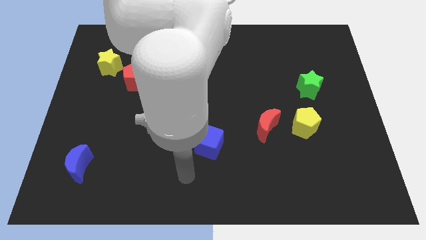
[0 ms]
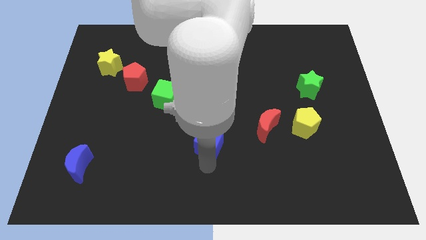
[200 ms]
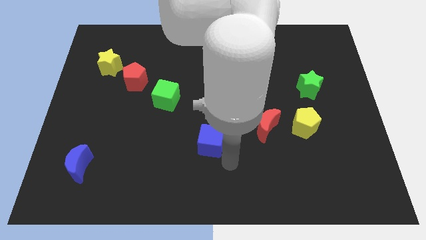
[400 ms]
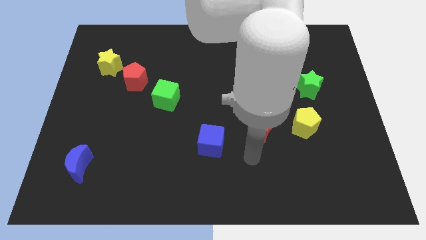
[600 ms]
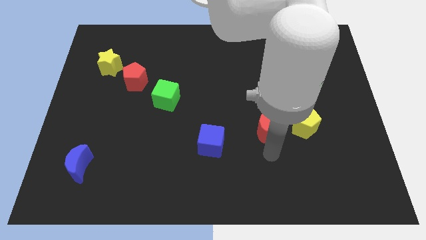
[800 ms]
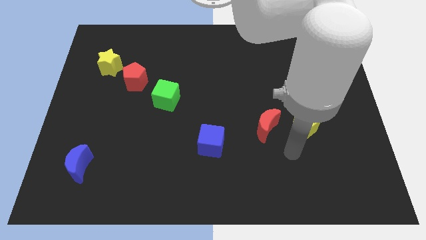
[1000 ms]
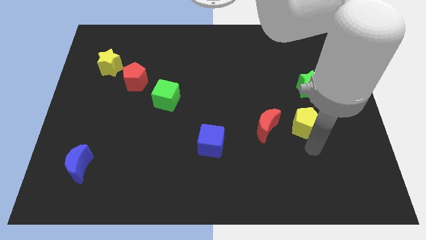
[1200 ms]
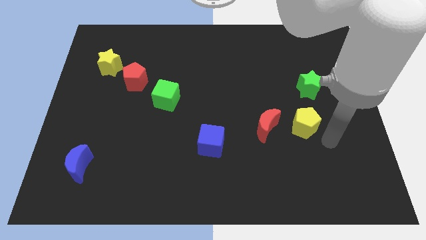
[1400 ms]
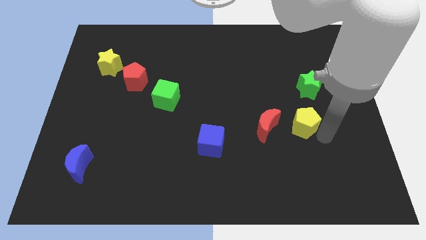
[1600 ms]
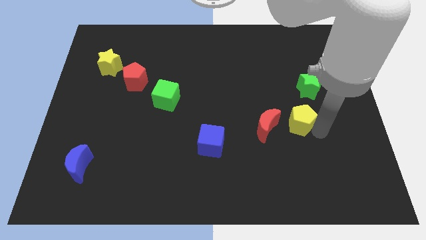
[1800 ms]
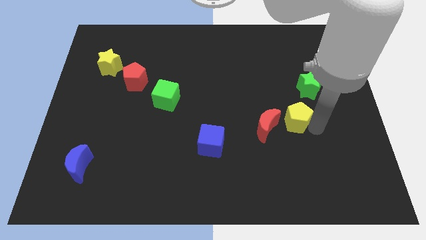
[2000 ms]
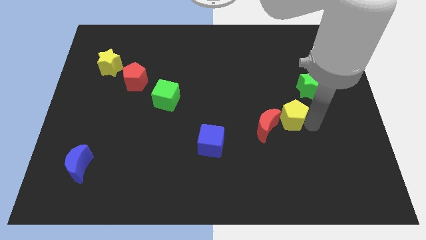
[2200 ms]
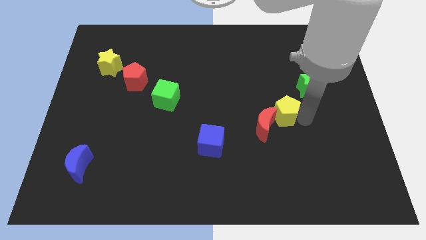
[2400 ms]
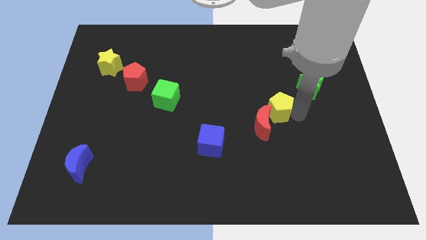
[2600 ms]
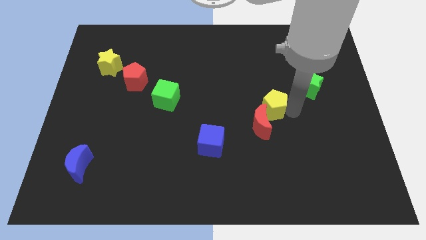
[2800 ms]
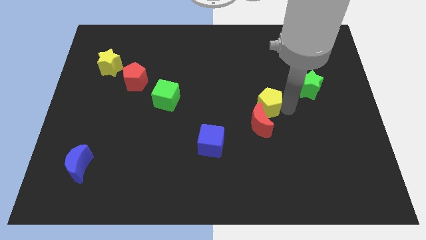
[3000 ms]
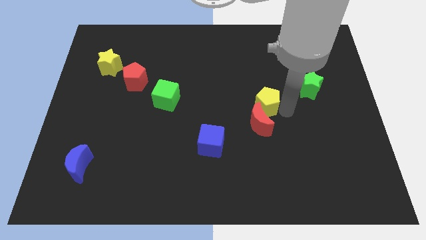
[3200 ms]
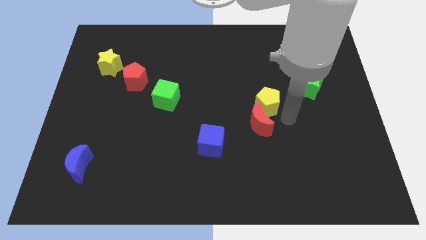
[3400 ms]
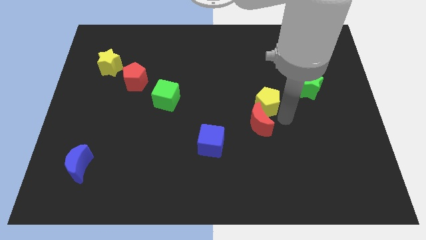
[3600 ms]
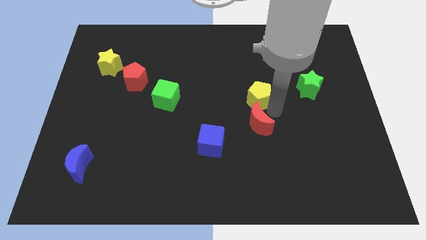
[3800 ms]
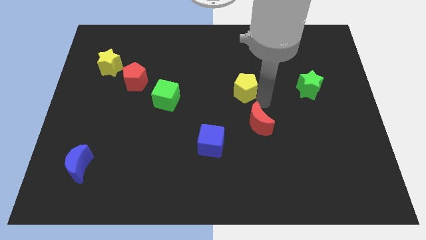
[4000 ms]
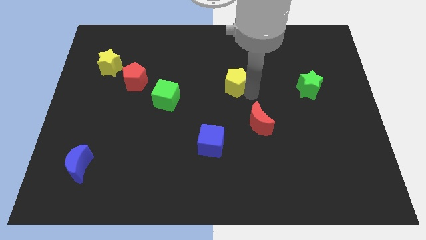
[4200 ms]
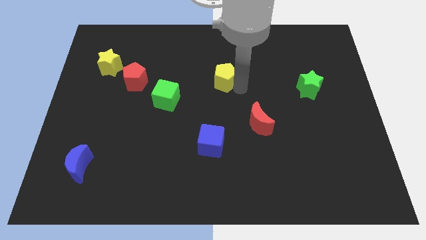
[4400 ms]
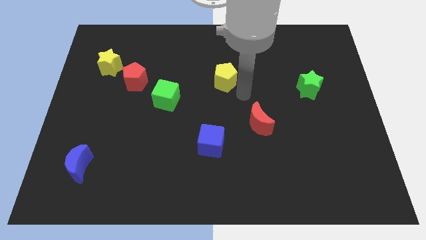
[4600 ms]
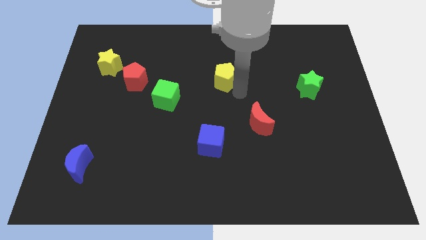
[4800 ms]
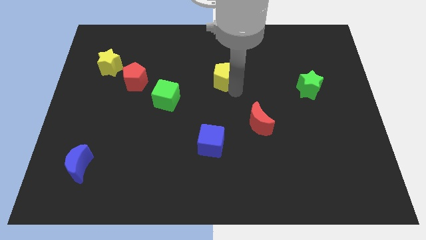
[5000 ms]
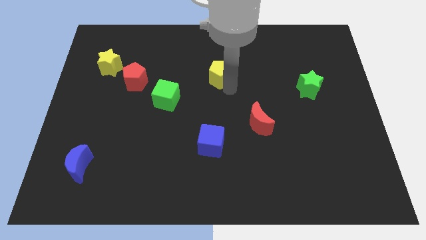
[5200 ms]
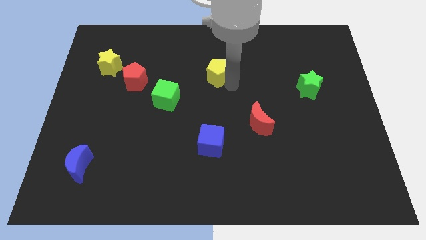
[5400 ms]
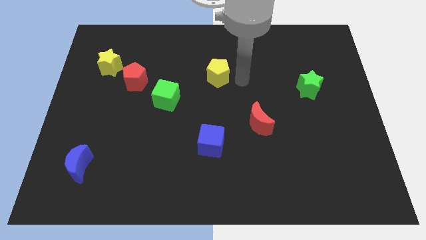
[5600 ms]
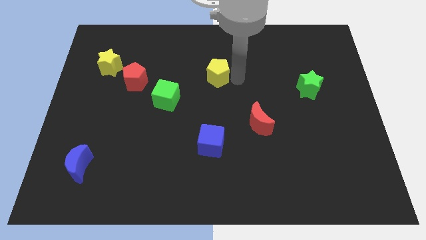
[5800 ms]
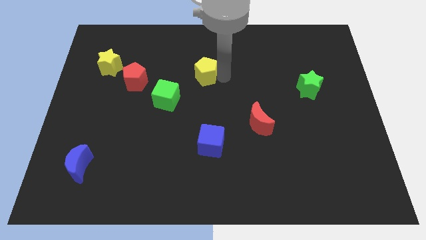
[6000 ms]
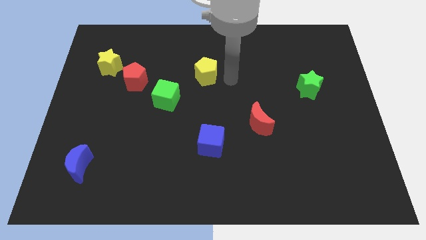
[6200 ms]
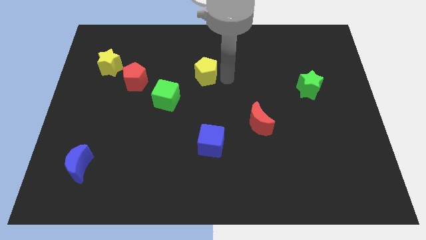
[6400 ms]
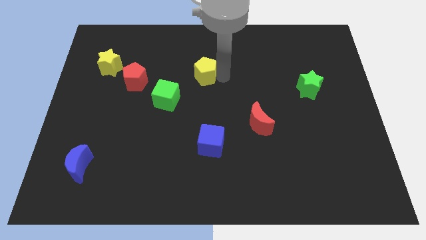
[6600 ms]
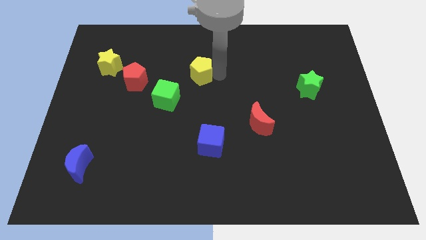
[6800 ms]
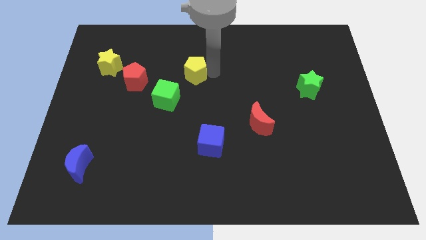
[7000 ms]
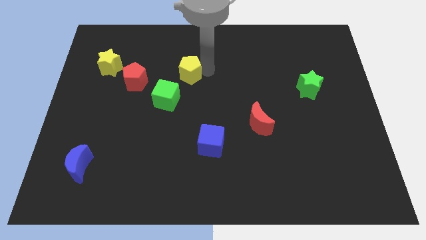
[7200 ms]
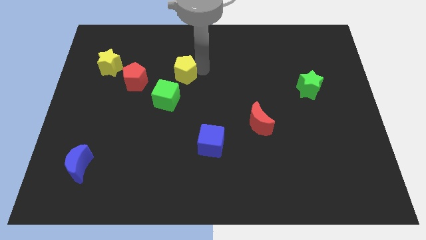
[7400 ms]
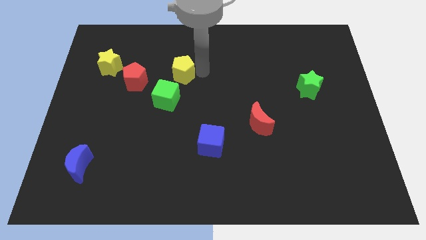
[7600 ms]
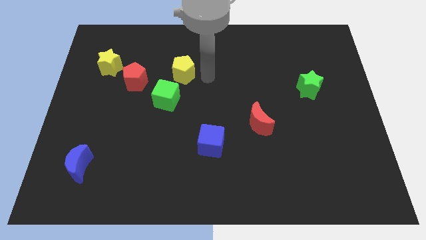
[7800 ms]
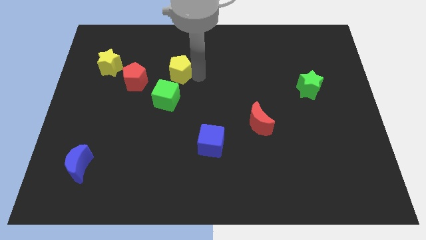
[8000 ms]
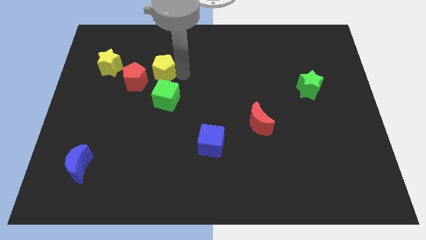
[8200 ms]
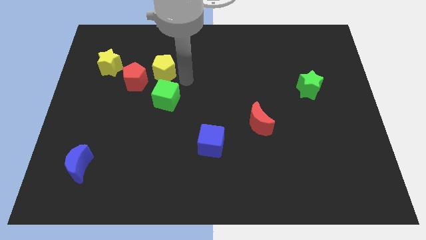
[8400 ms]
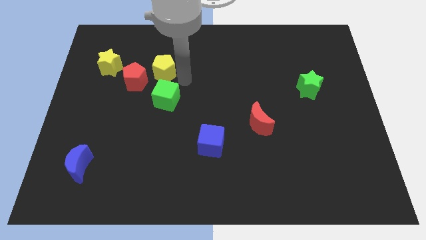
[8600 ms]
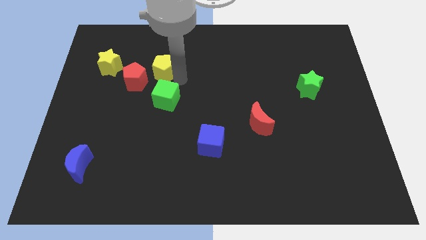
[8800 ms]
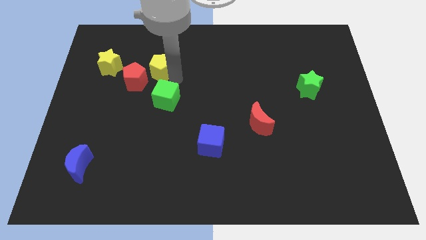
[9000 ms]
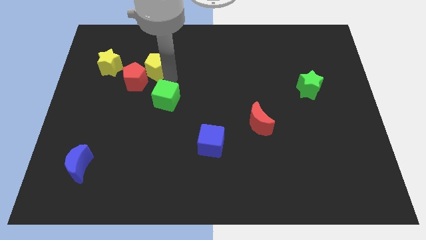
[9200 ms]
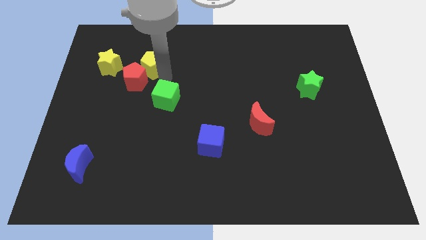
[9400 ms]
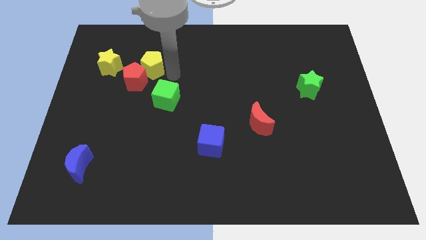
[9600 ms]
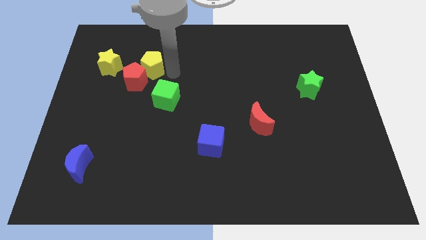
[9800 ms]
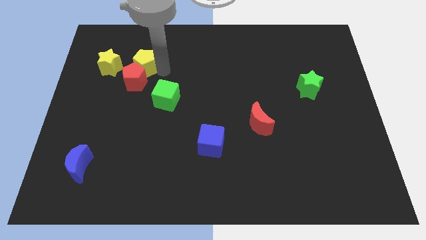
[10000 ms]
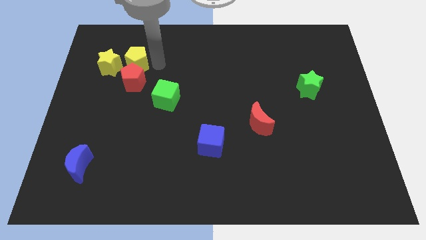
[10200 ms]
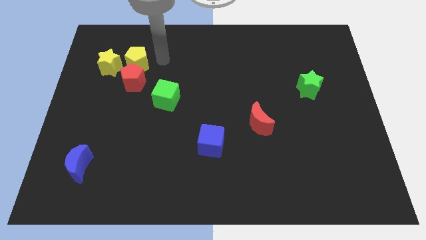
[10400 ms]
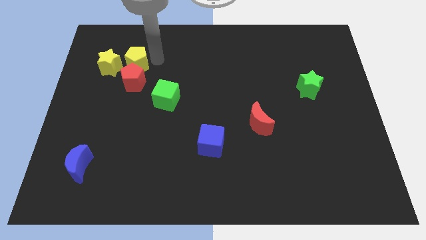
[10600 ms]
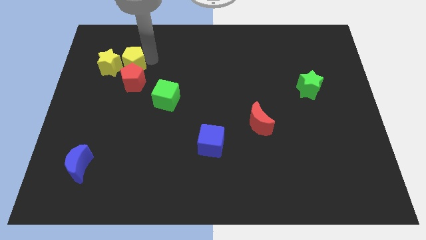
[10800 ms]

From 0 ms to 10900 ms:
slide the yellow pentagon next to the yellow star

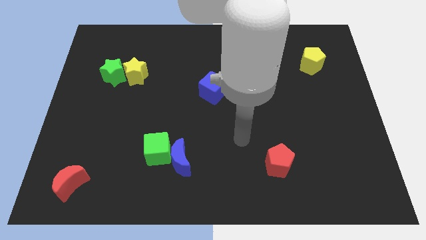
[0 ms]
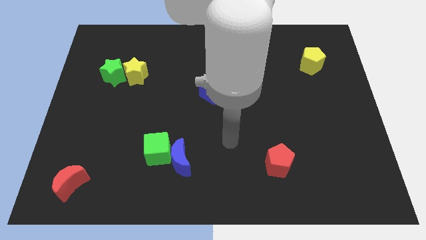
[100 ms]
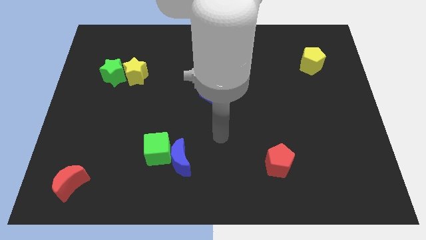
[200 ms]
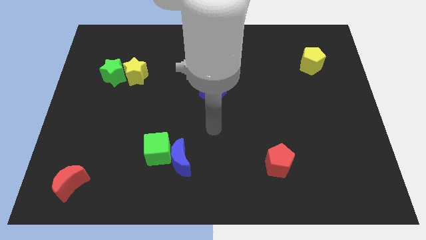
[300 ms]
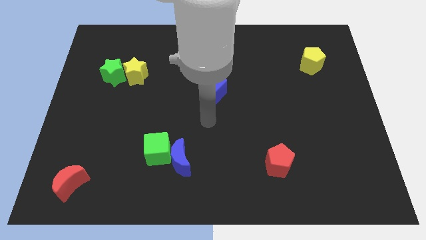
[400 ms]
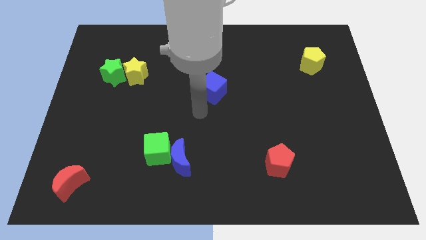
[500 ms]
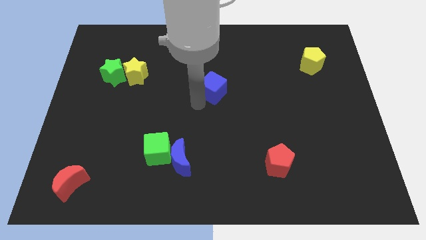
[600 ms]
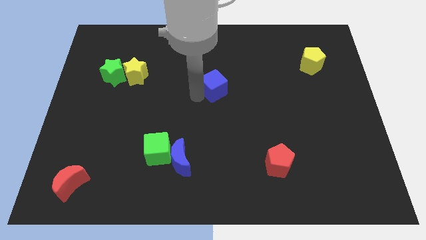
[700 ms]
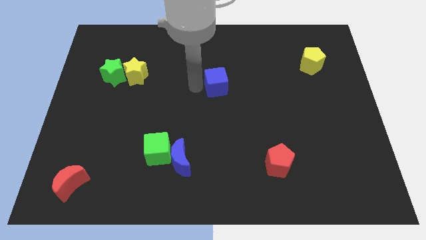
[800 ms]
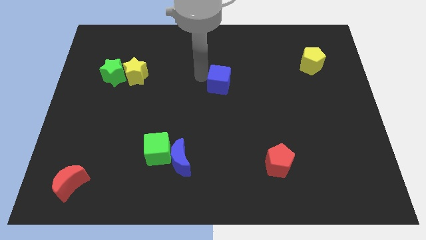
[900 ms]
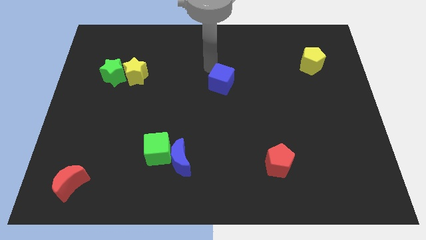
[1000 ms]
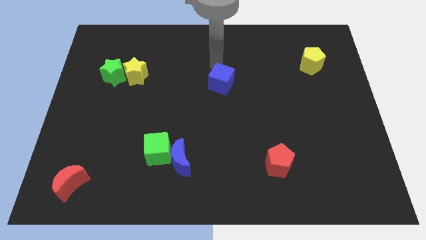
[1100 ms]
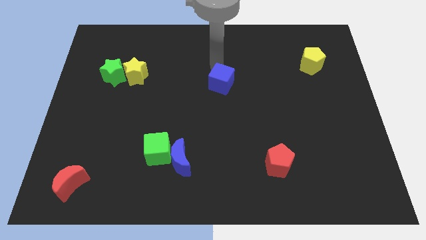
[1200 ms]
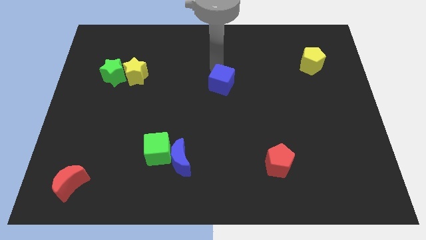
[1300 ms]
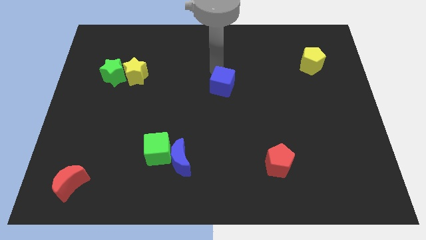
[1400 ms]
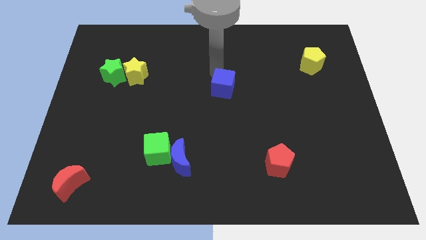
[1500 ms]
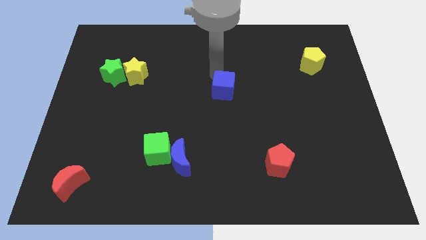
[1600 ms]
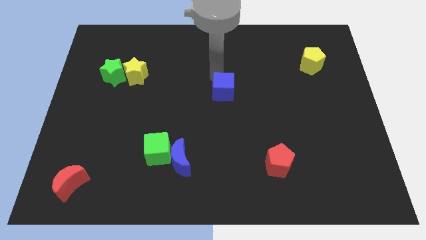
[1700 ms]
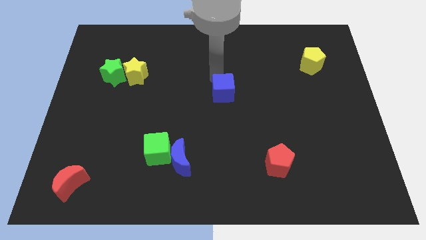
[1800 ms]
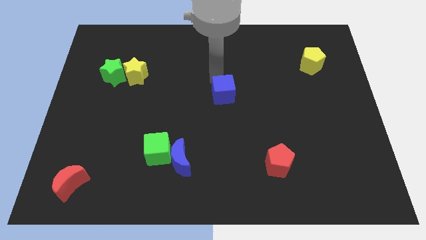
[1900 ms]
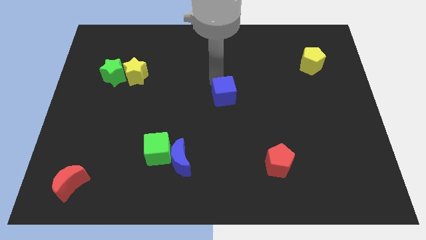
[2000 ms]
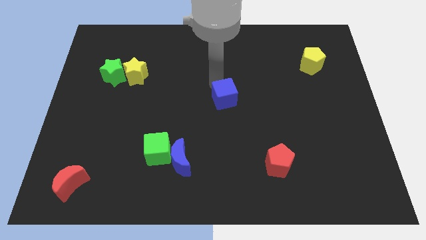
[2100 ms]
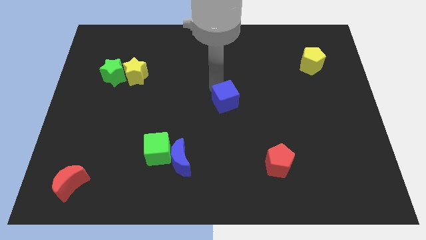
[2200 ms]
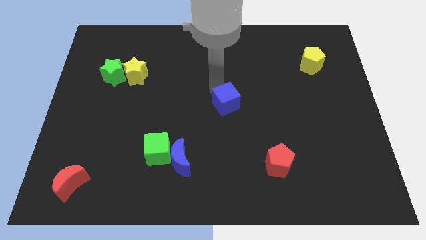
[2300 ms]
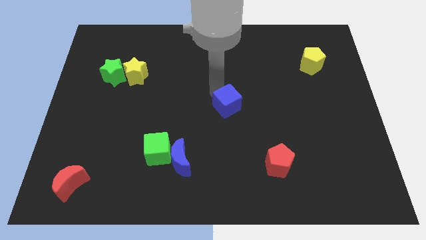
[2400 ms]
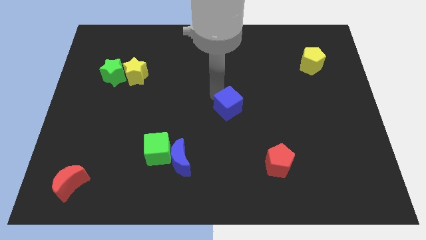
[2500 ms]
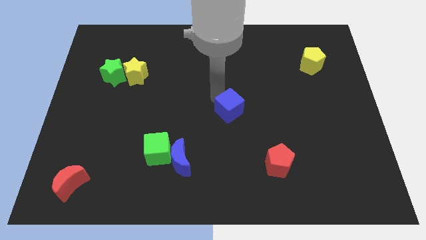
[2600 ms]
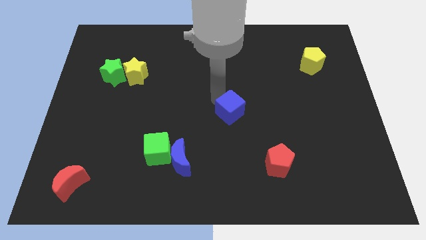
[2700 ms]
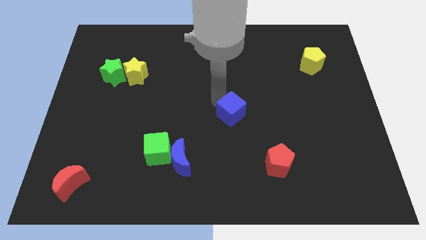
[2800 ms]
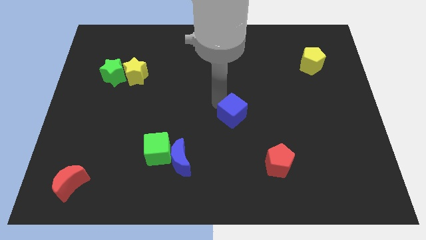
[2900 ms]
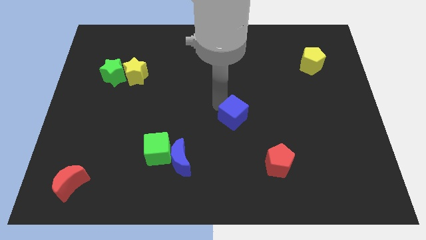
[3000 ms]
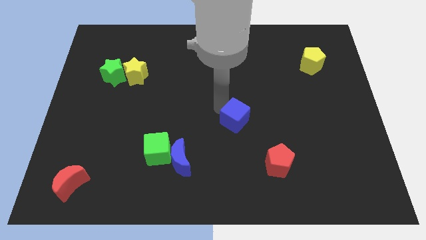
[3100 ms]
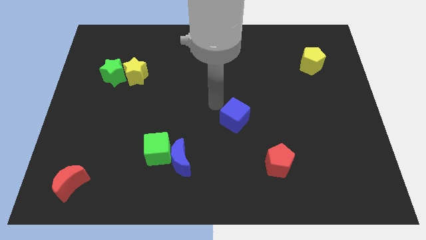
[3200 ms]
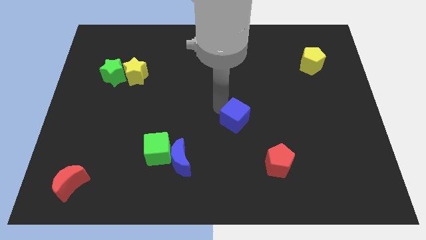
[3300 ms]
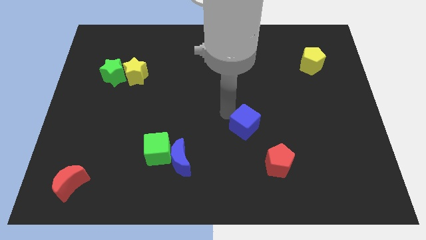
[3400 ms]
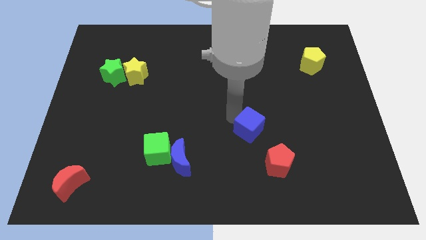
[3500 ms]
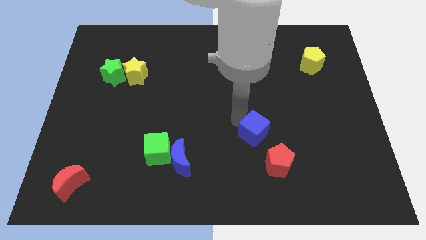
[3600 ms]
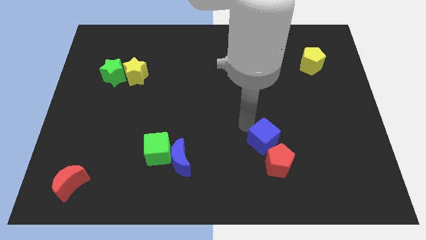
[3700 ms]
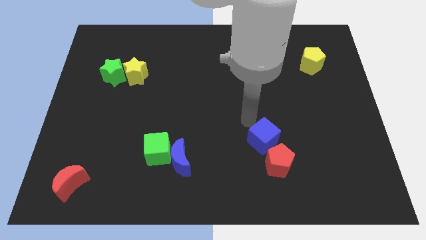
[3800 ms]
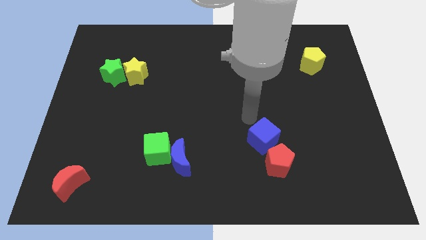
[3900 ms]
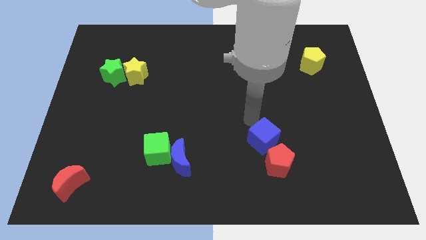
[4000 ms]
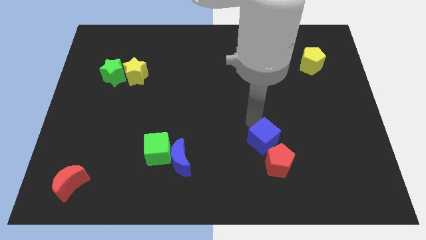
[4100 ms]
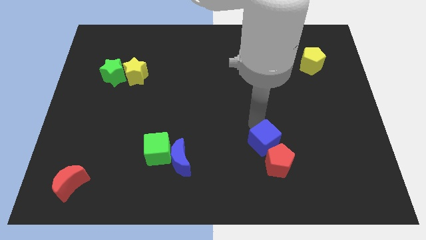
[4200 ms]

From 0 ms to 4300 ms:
put the blue cube towards the red pentagon
